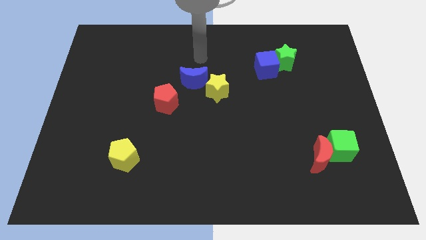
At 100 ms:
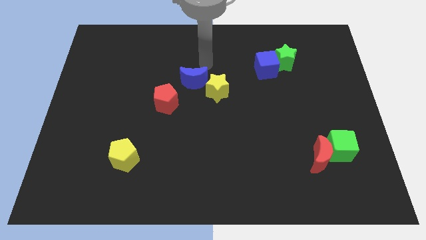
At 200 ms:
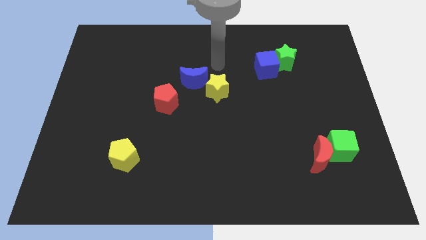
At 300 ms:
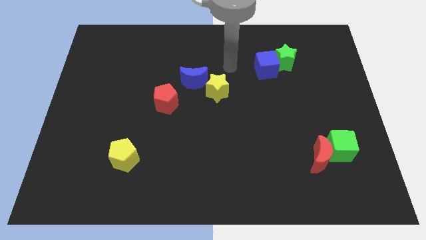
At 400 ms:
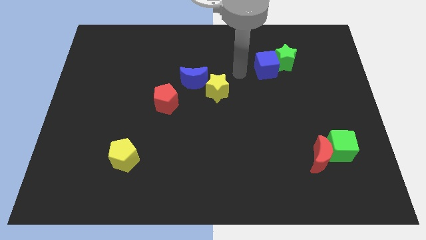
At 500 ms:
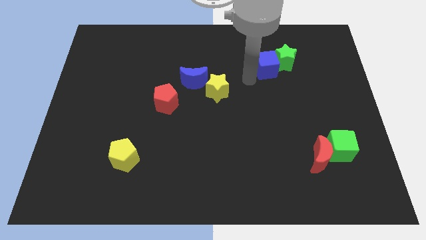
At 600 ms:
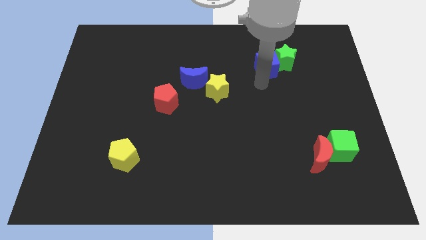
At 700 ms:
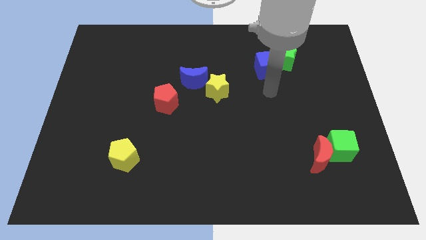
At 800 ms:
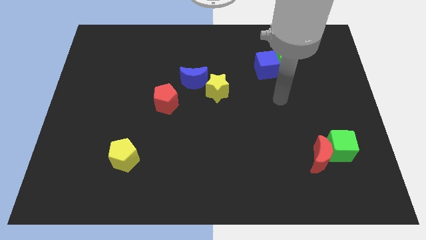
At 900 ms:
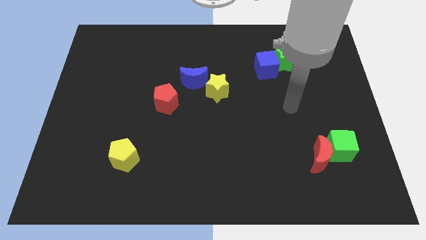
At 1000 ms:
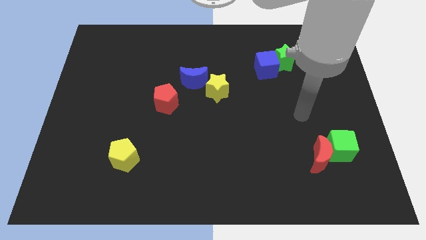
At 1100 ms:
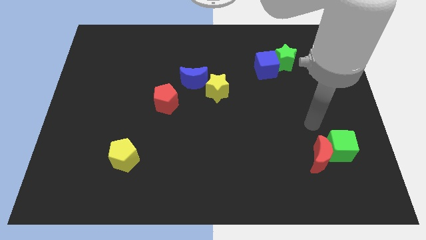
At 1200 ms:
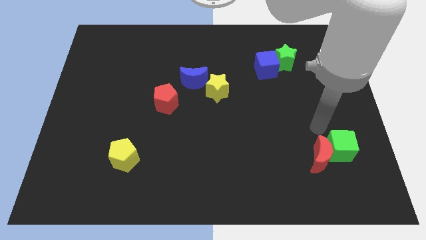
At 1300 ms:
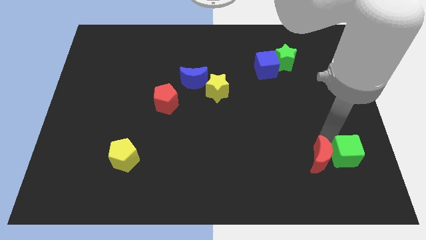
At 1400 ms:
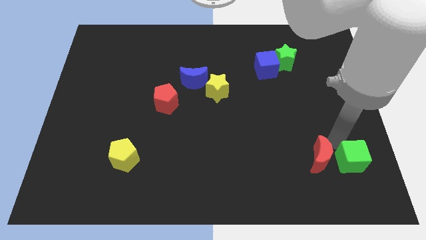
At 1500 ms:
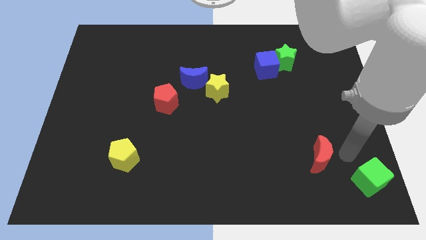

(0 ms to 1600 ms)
move the red moon away from the green cube

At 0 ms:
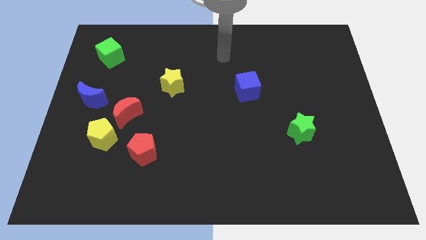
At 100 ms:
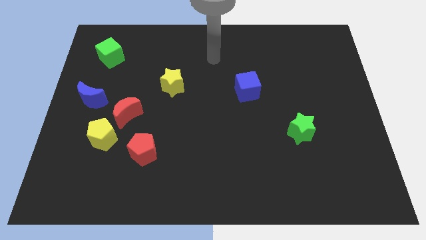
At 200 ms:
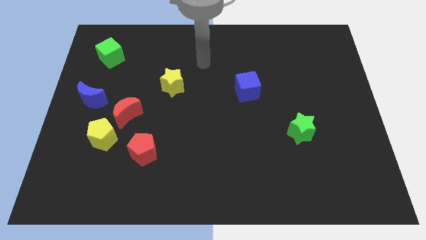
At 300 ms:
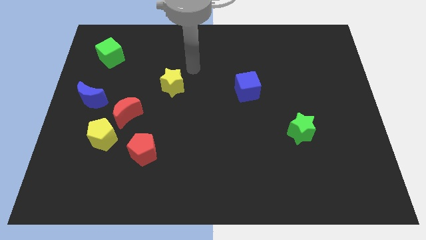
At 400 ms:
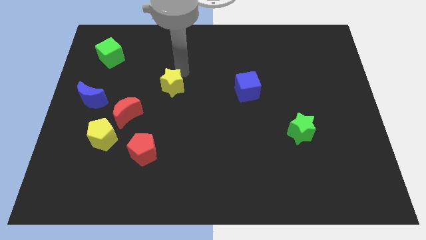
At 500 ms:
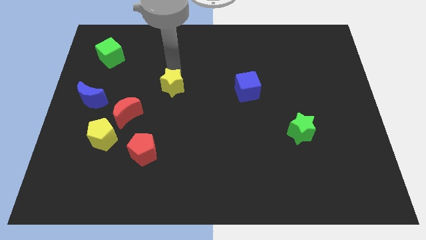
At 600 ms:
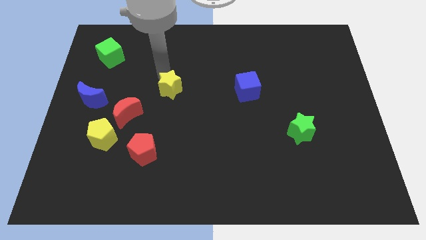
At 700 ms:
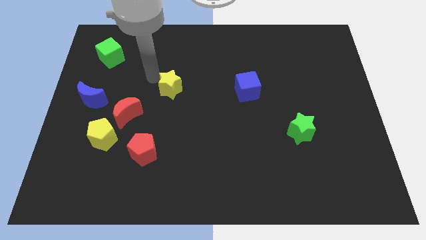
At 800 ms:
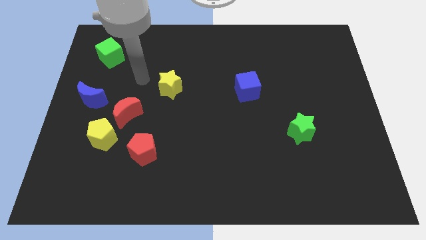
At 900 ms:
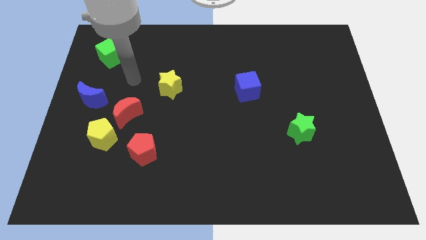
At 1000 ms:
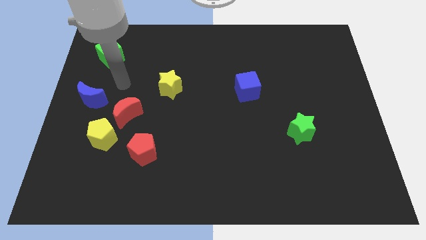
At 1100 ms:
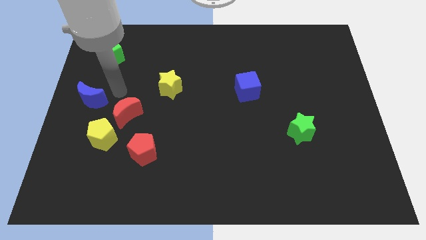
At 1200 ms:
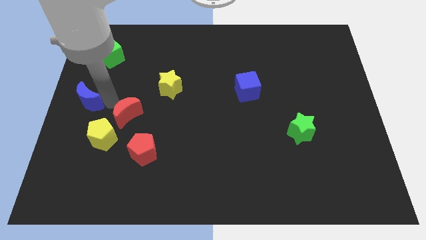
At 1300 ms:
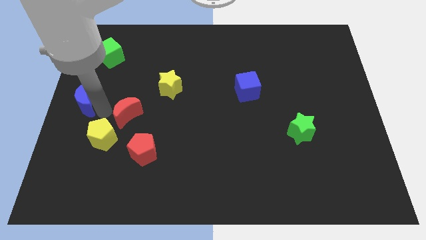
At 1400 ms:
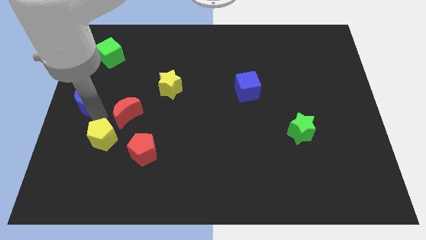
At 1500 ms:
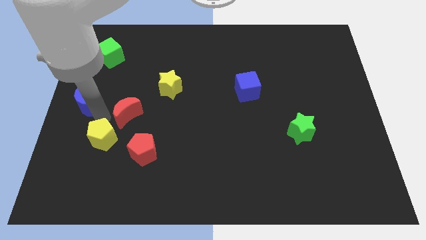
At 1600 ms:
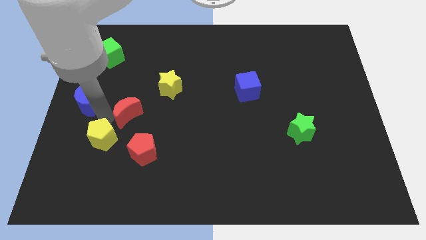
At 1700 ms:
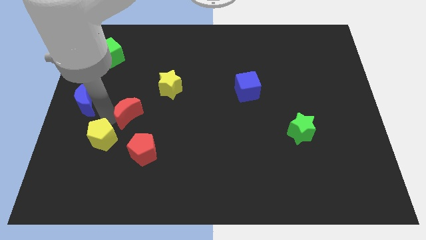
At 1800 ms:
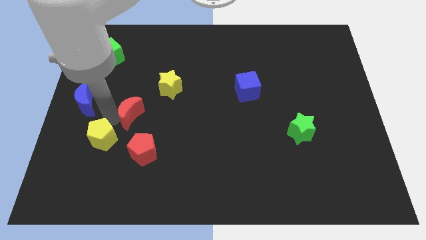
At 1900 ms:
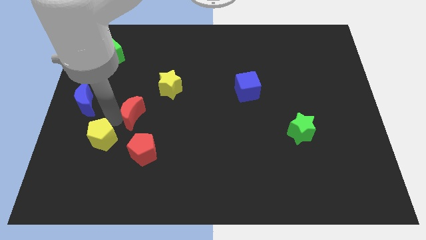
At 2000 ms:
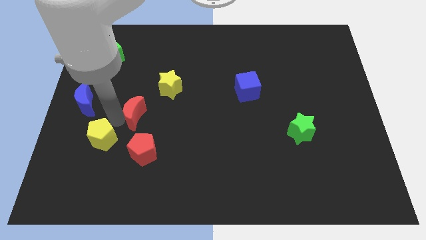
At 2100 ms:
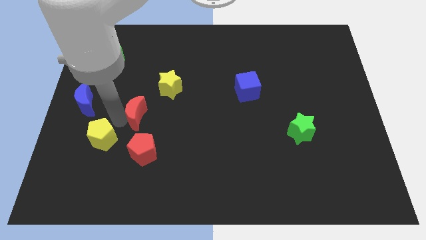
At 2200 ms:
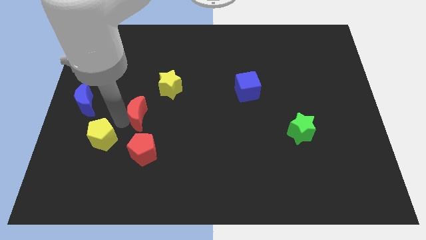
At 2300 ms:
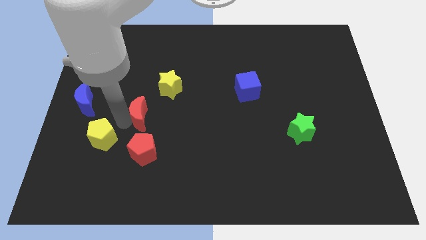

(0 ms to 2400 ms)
move the red moon away from the yellow pentagon and blue moon

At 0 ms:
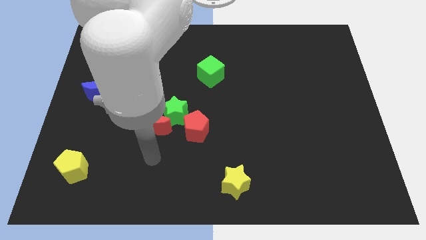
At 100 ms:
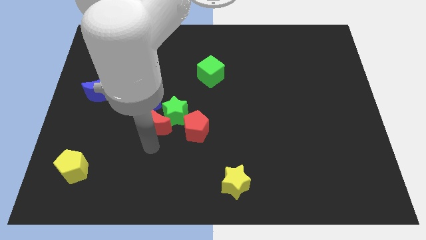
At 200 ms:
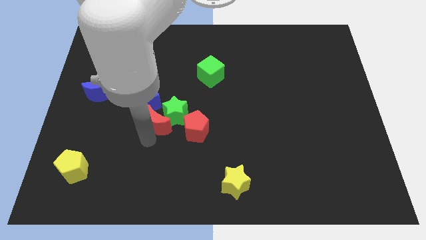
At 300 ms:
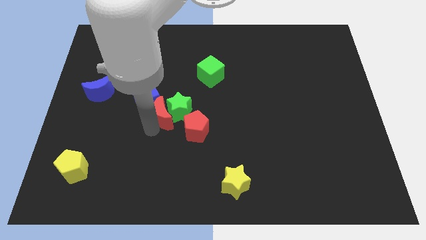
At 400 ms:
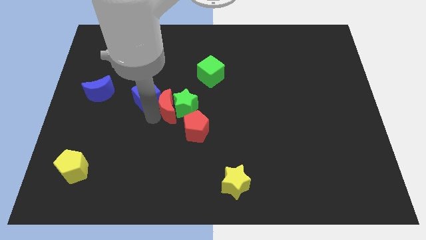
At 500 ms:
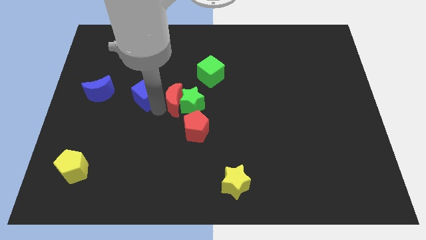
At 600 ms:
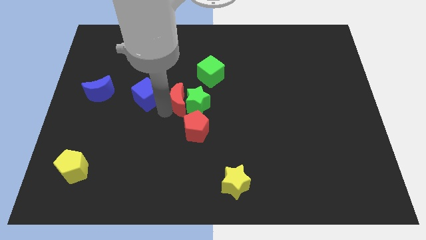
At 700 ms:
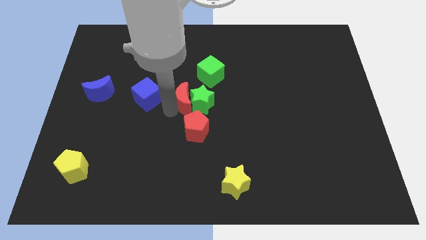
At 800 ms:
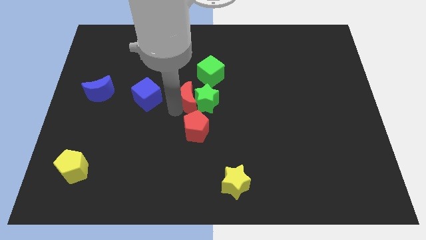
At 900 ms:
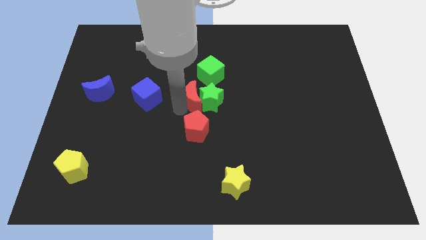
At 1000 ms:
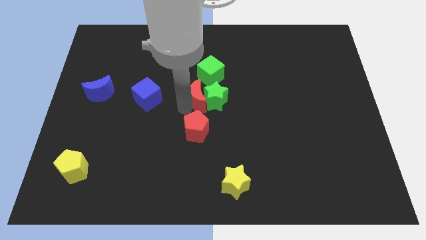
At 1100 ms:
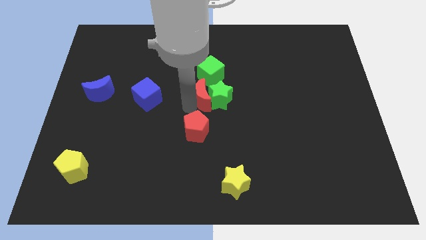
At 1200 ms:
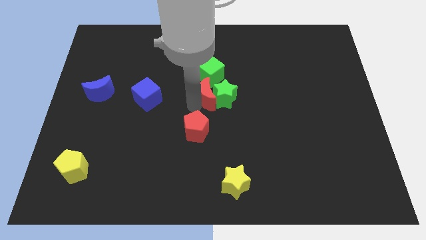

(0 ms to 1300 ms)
separate the green star from the red moon, red pentagon, and blue cube

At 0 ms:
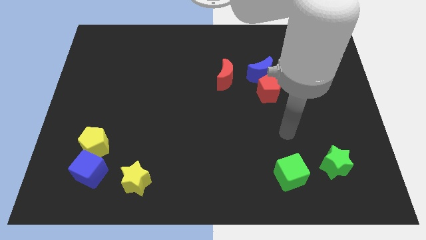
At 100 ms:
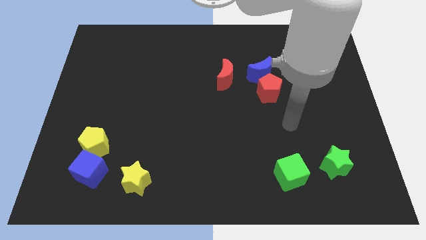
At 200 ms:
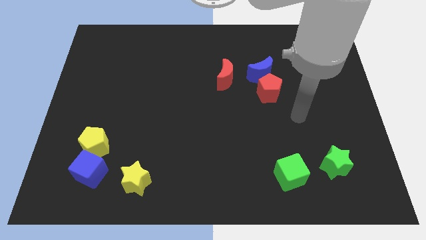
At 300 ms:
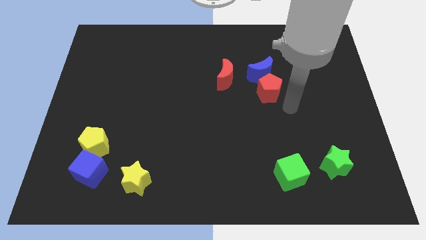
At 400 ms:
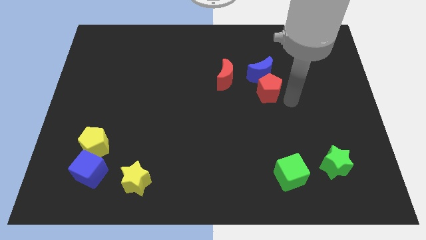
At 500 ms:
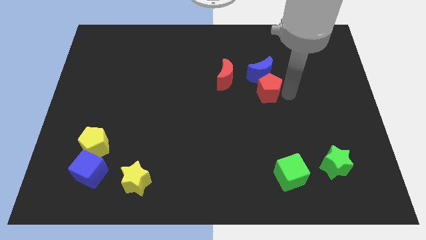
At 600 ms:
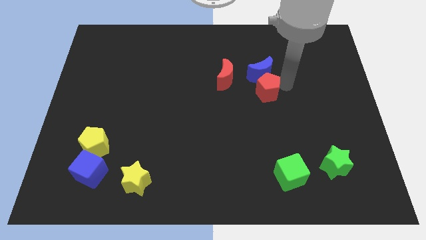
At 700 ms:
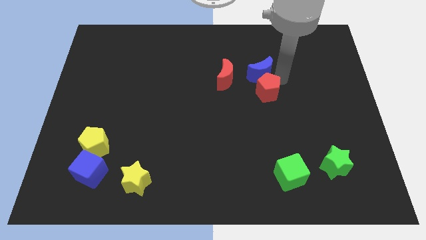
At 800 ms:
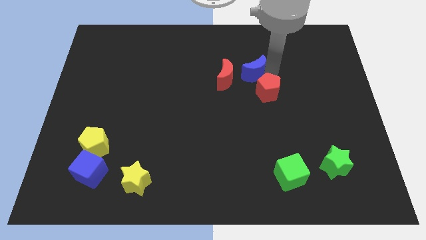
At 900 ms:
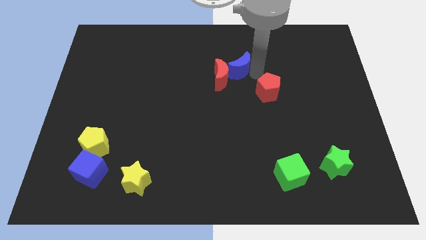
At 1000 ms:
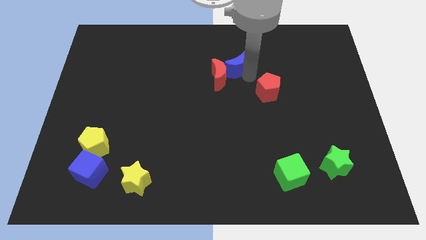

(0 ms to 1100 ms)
move the red pentagon away from the blue moon

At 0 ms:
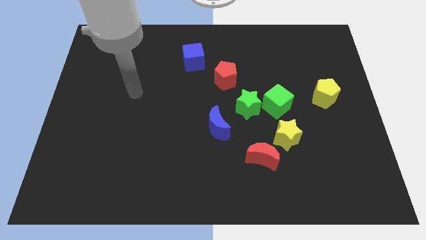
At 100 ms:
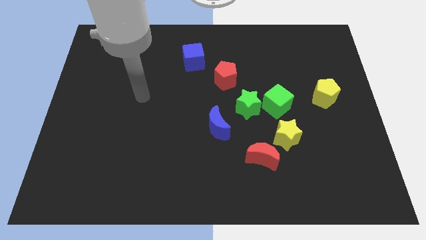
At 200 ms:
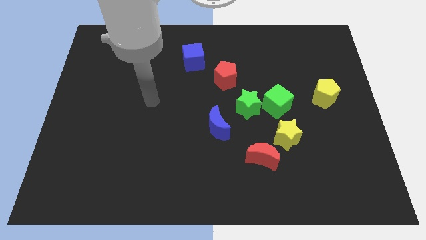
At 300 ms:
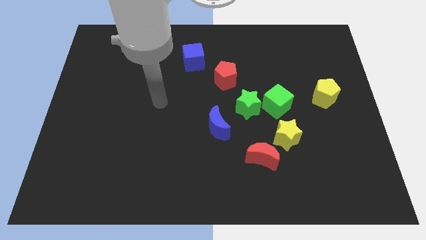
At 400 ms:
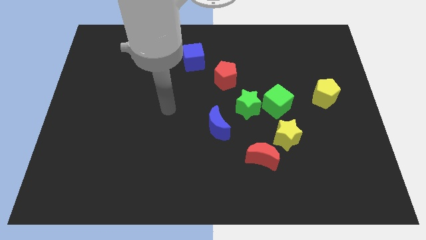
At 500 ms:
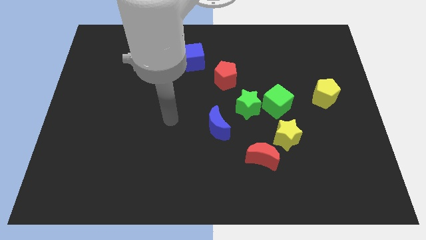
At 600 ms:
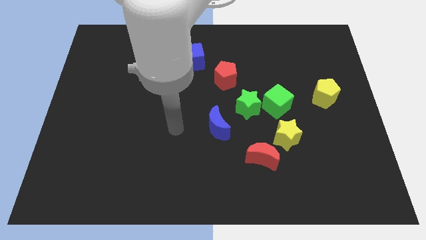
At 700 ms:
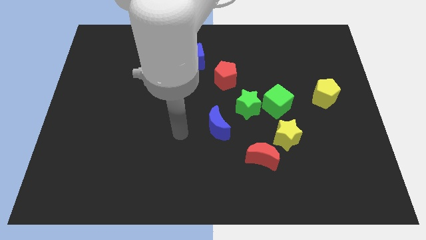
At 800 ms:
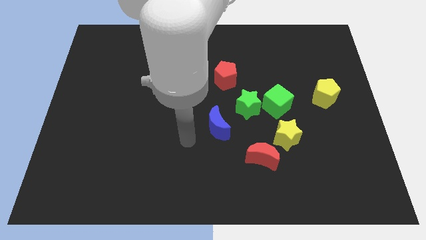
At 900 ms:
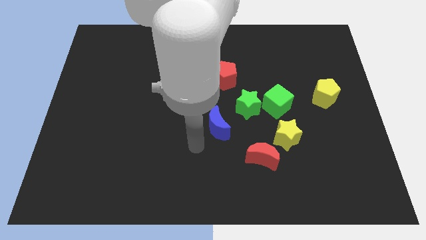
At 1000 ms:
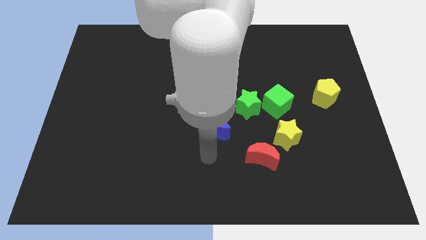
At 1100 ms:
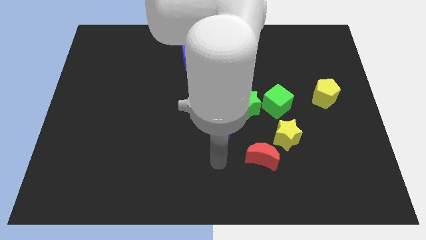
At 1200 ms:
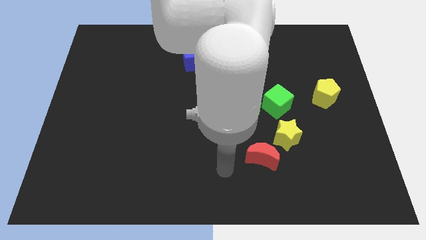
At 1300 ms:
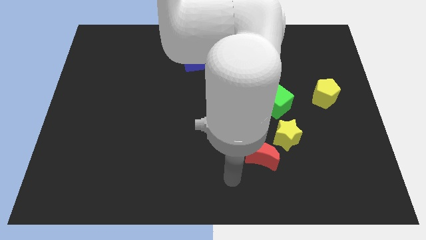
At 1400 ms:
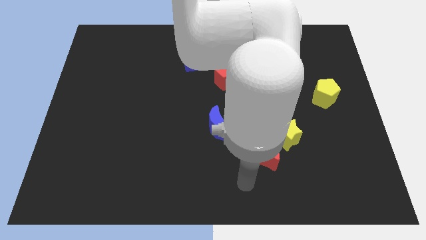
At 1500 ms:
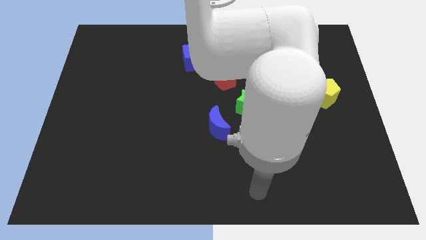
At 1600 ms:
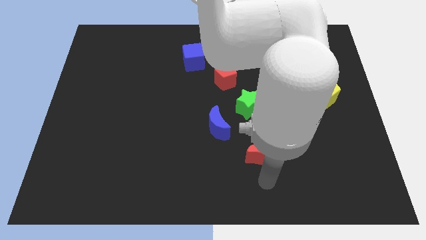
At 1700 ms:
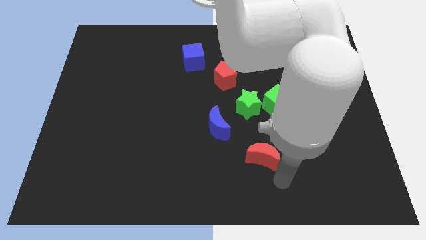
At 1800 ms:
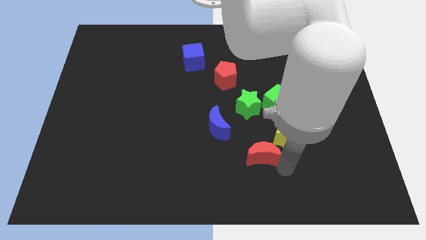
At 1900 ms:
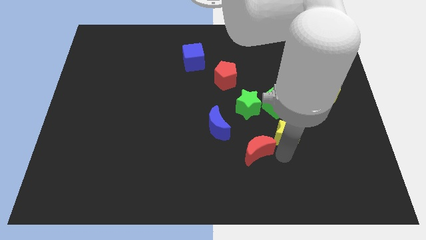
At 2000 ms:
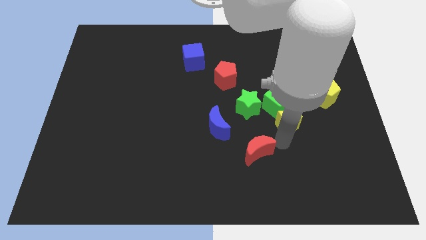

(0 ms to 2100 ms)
pull the red moon apart from the yellow star

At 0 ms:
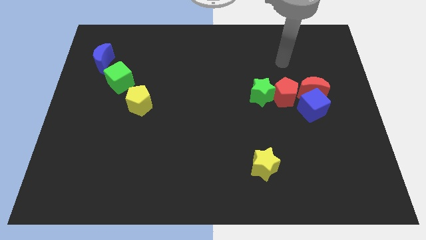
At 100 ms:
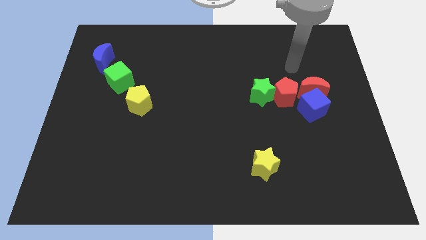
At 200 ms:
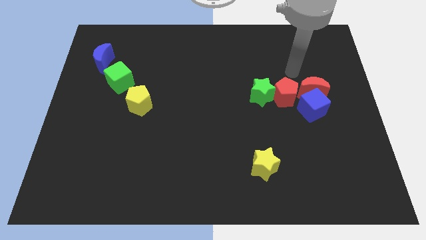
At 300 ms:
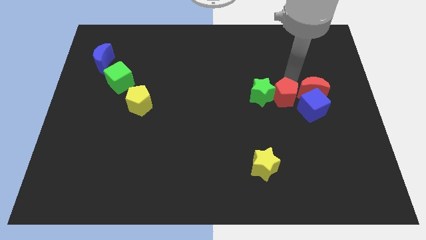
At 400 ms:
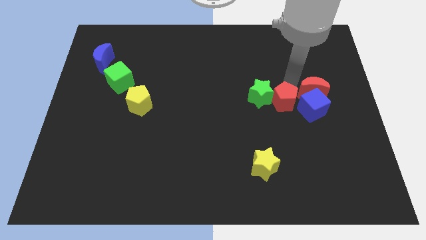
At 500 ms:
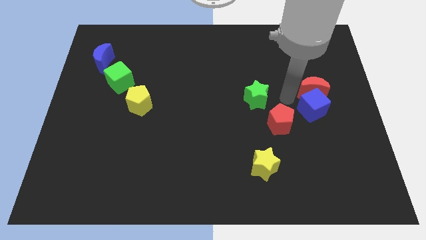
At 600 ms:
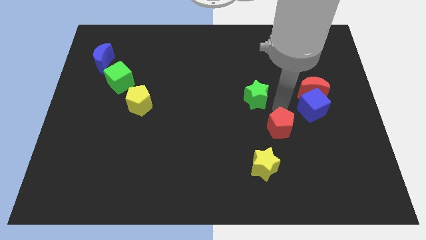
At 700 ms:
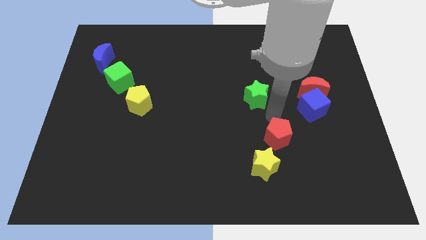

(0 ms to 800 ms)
separate the green star from the red pentagon
